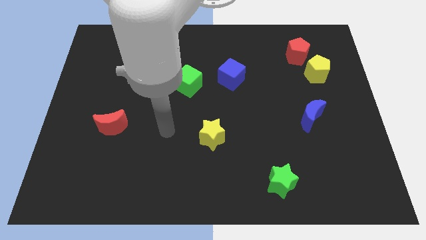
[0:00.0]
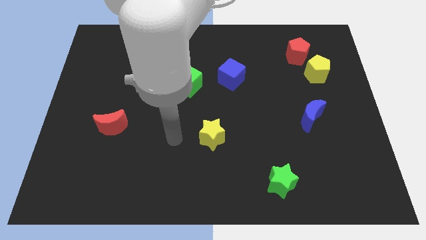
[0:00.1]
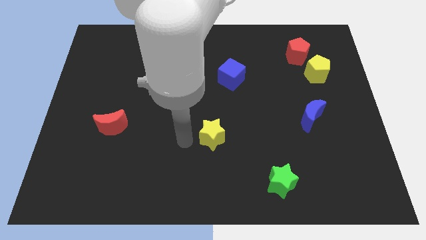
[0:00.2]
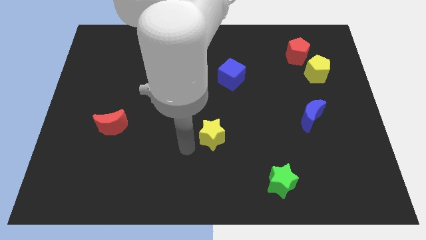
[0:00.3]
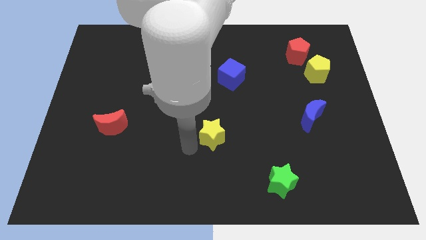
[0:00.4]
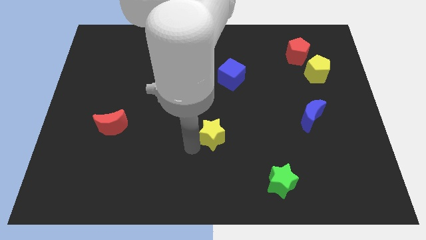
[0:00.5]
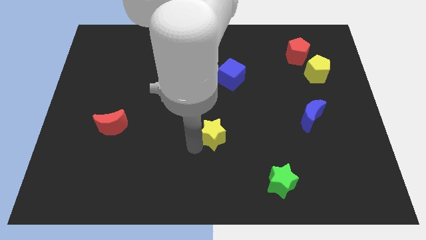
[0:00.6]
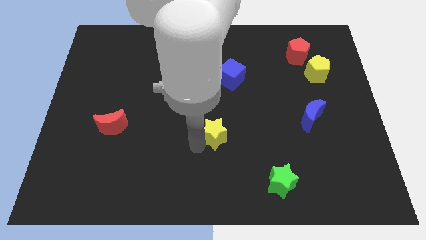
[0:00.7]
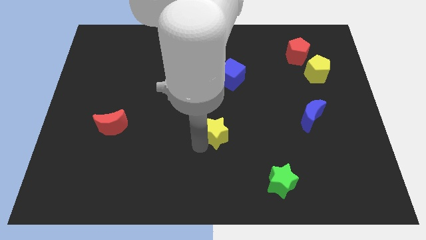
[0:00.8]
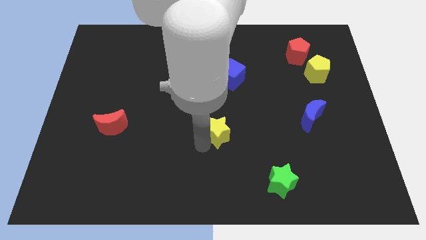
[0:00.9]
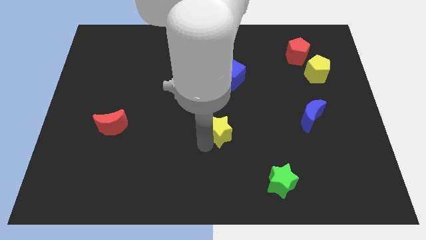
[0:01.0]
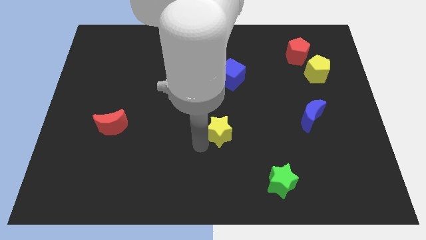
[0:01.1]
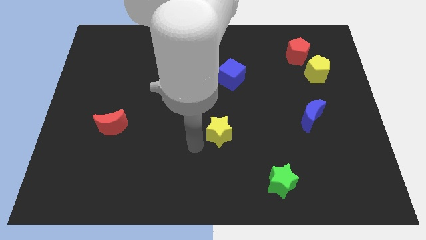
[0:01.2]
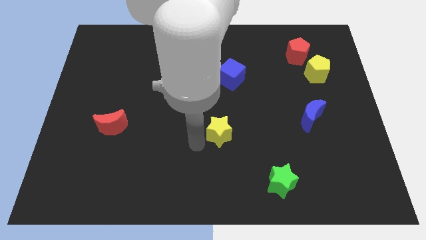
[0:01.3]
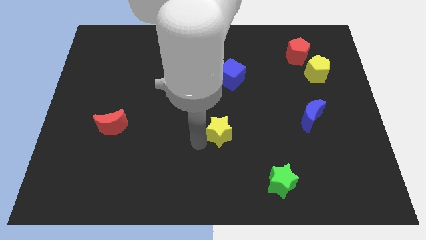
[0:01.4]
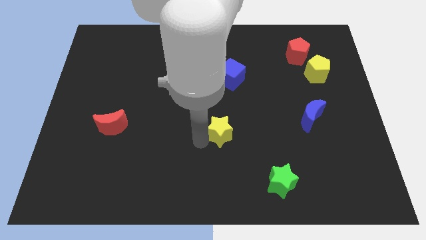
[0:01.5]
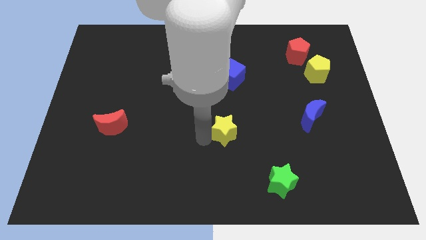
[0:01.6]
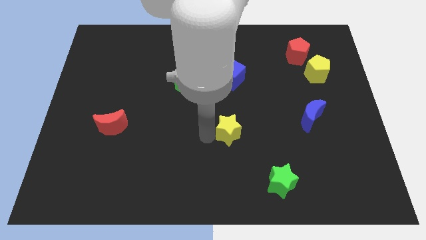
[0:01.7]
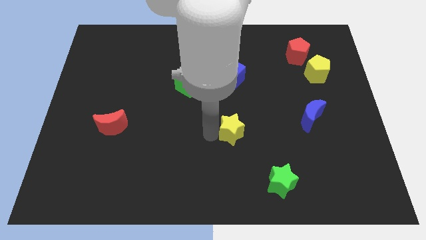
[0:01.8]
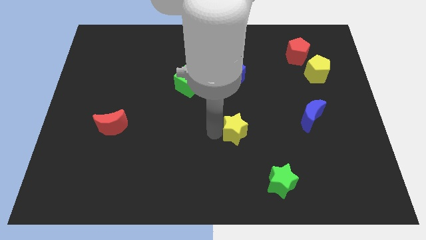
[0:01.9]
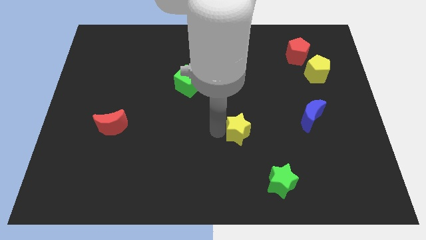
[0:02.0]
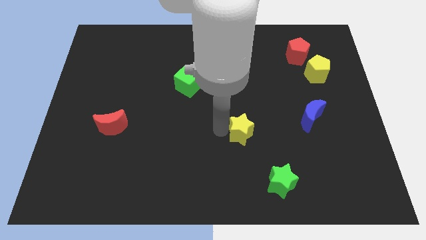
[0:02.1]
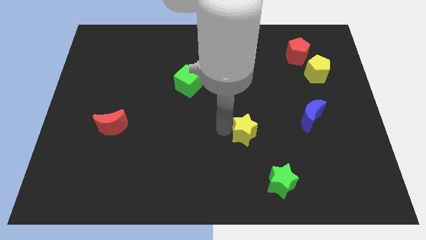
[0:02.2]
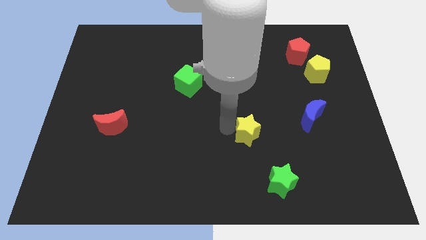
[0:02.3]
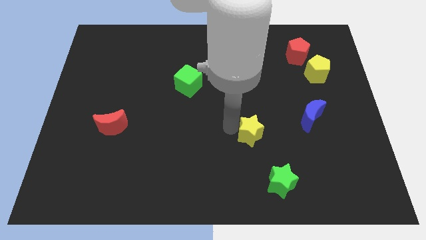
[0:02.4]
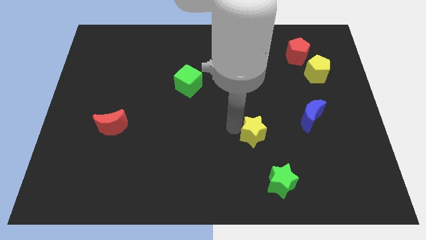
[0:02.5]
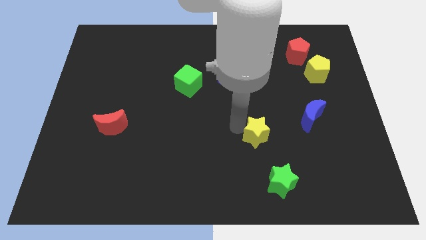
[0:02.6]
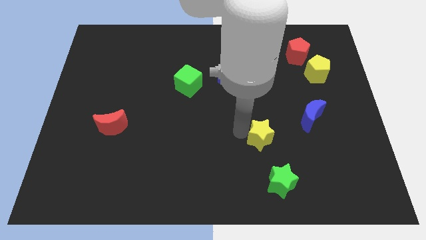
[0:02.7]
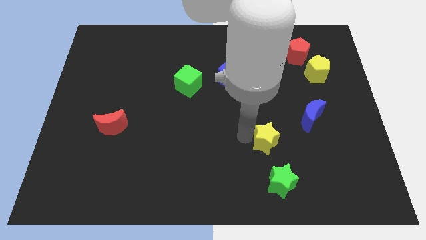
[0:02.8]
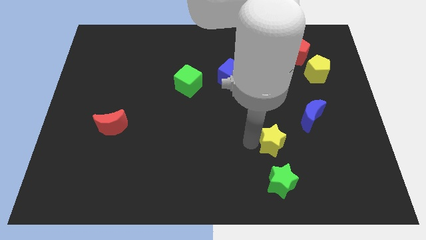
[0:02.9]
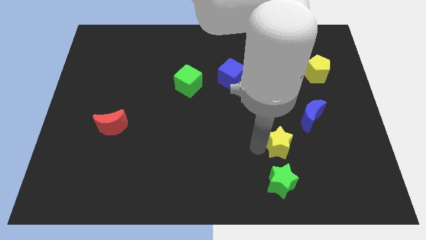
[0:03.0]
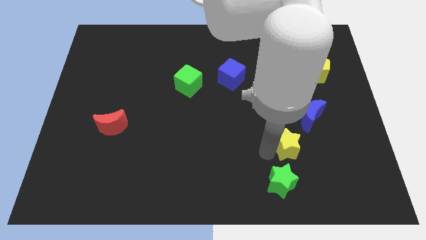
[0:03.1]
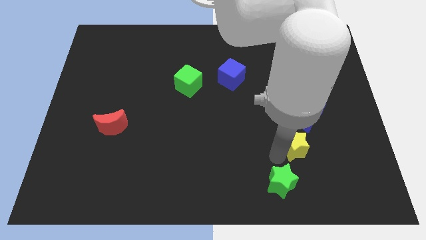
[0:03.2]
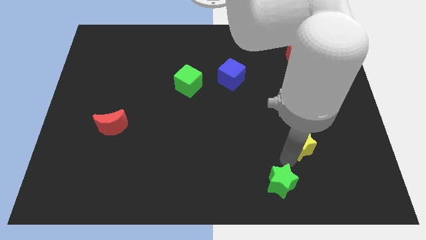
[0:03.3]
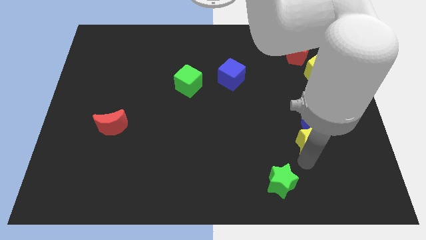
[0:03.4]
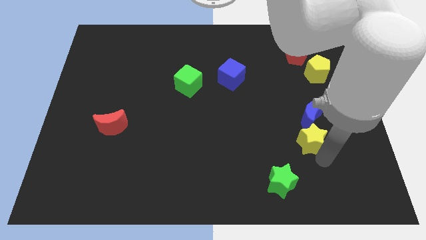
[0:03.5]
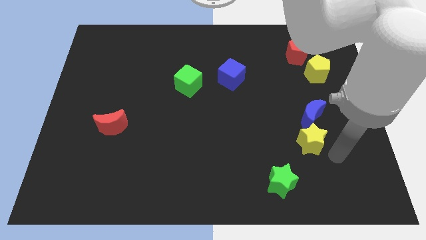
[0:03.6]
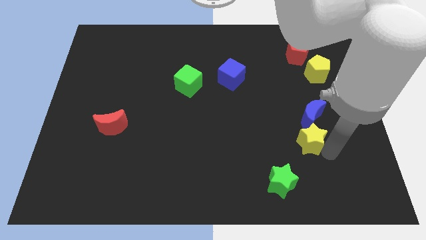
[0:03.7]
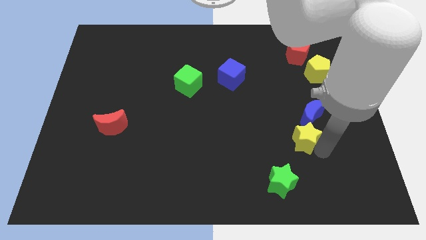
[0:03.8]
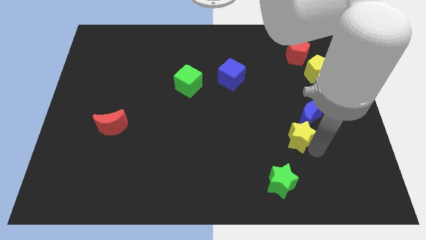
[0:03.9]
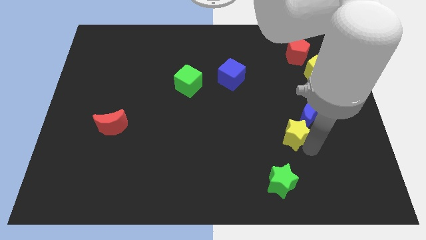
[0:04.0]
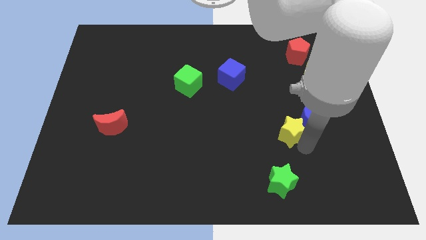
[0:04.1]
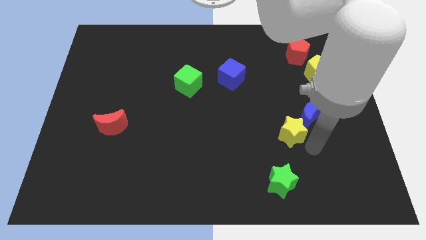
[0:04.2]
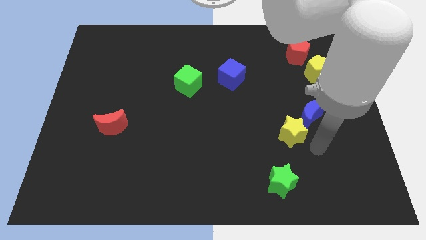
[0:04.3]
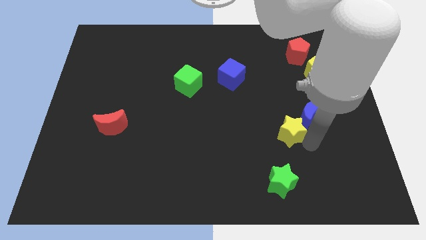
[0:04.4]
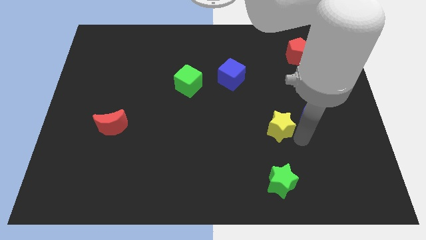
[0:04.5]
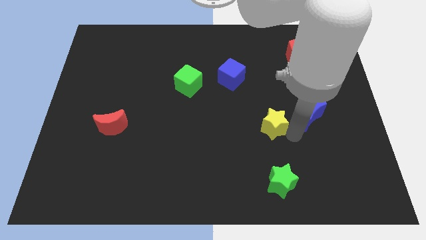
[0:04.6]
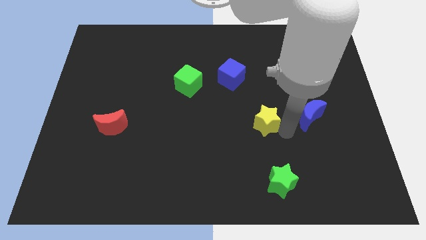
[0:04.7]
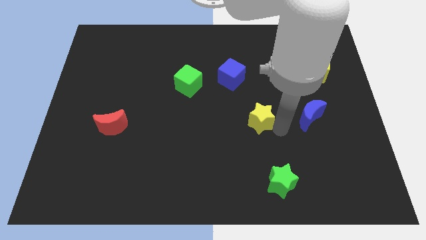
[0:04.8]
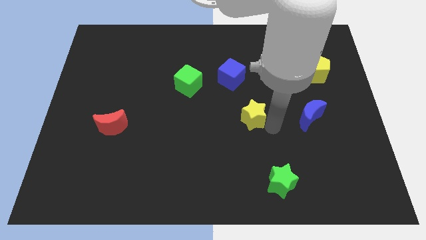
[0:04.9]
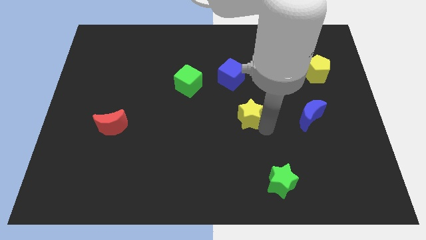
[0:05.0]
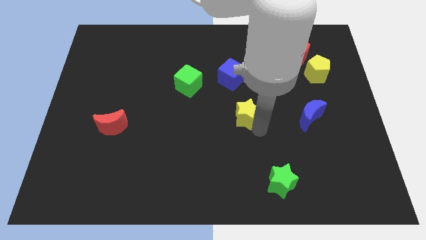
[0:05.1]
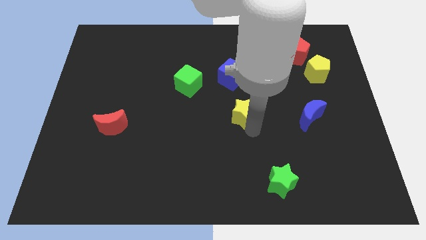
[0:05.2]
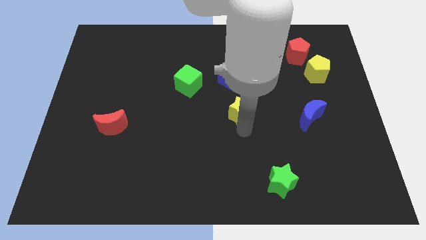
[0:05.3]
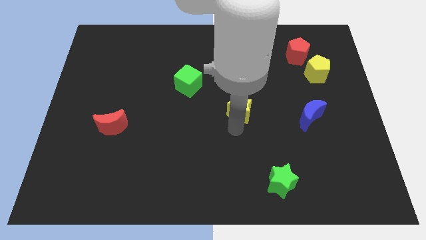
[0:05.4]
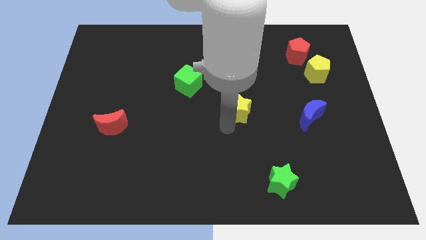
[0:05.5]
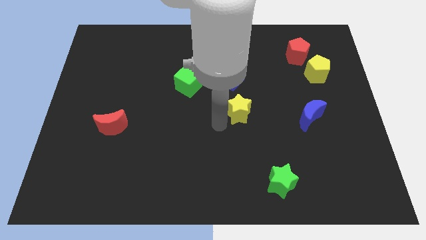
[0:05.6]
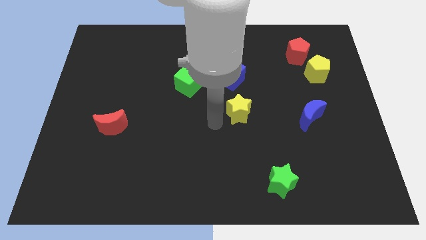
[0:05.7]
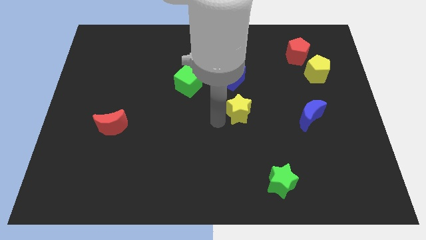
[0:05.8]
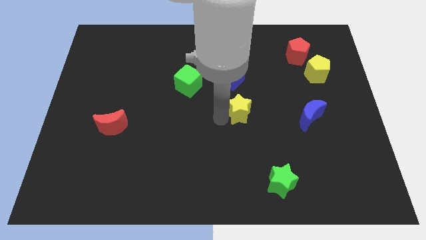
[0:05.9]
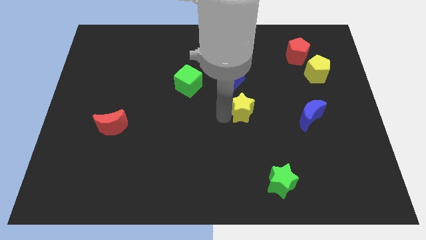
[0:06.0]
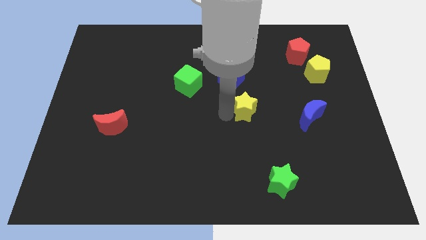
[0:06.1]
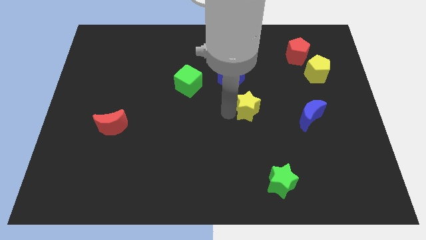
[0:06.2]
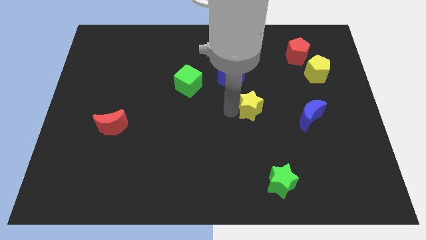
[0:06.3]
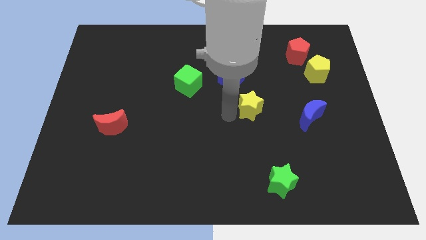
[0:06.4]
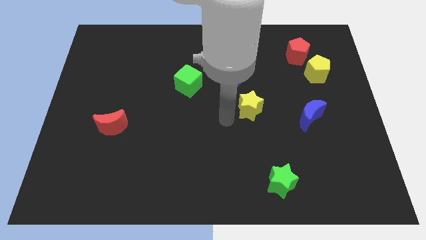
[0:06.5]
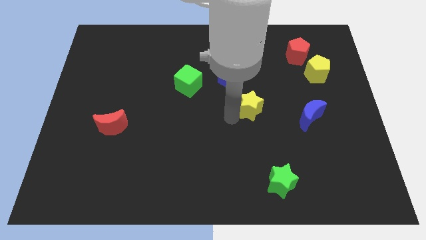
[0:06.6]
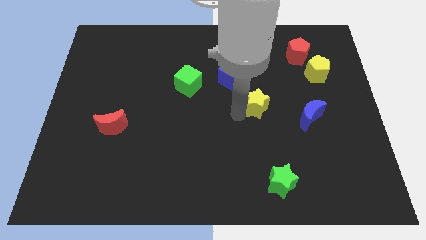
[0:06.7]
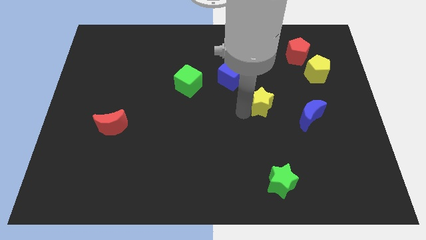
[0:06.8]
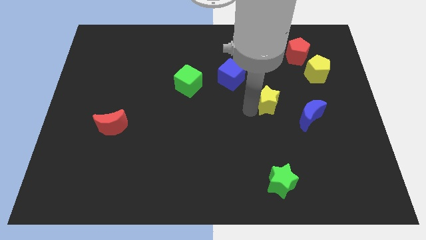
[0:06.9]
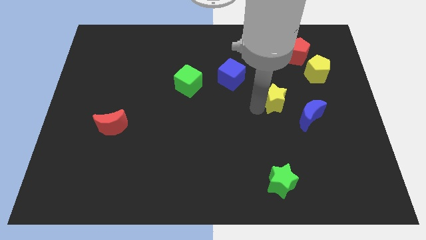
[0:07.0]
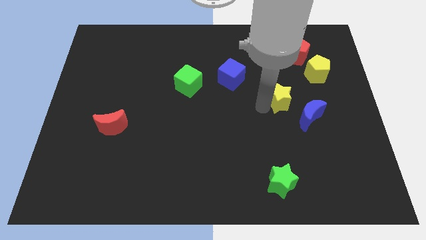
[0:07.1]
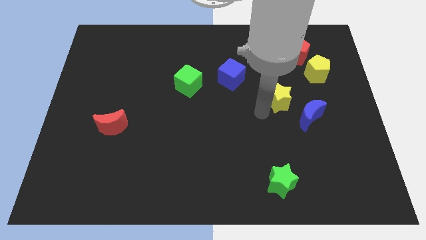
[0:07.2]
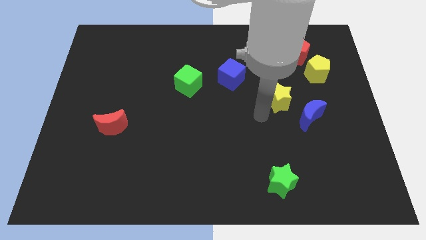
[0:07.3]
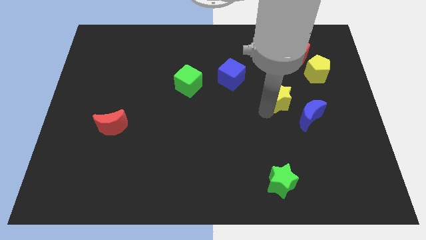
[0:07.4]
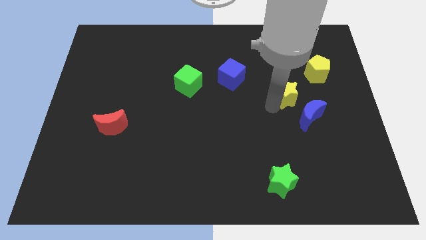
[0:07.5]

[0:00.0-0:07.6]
slide the yellow star to the top of the blue moon
